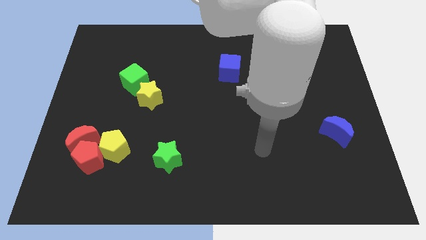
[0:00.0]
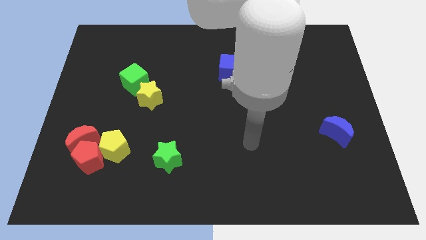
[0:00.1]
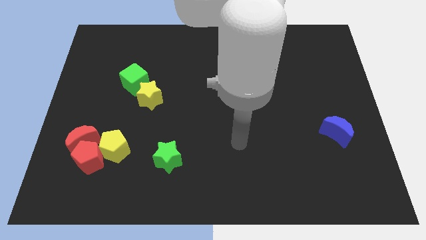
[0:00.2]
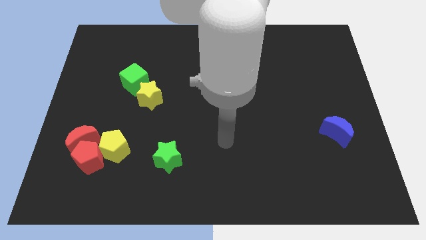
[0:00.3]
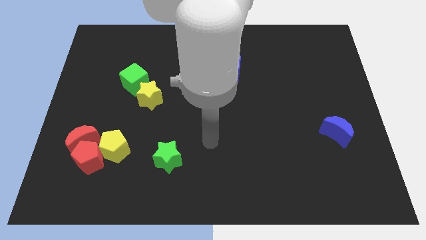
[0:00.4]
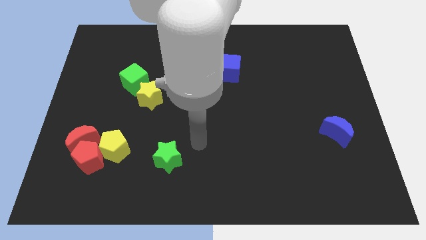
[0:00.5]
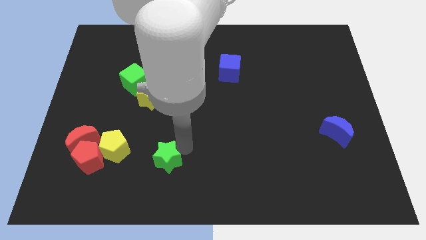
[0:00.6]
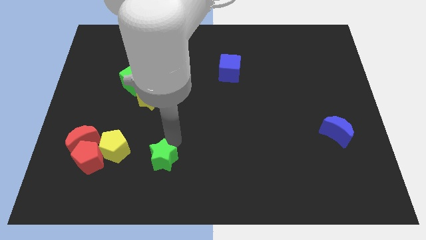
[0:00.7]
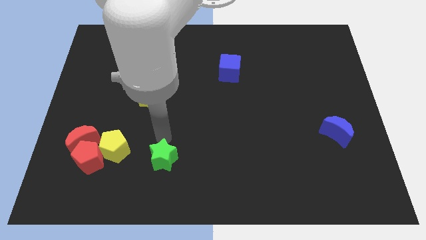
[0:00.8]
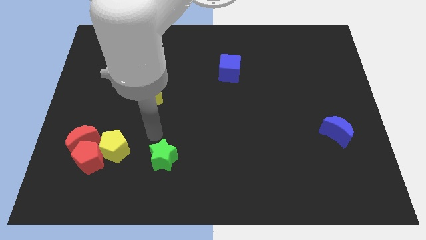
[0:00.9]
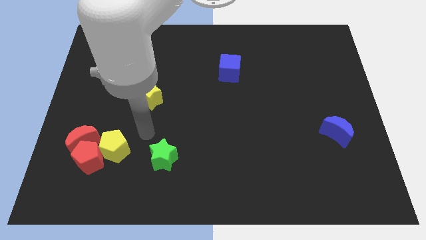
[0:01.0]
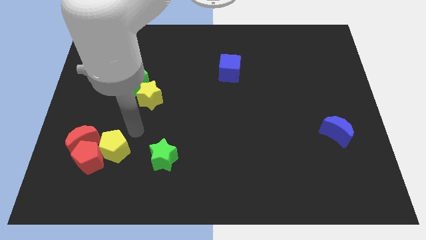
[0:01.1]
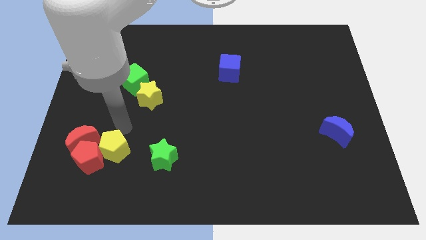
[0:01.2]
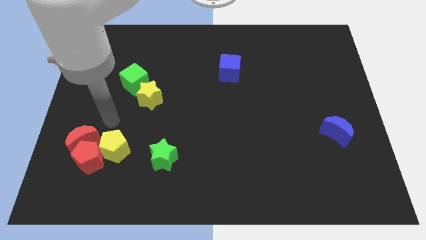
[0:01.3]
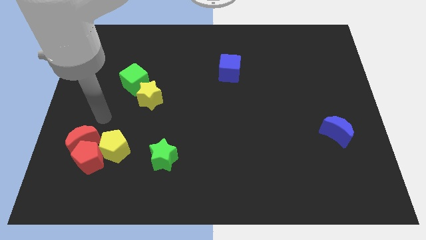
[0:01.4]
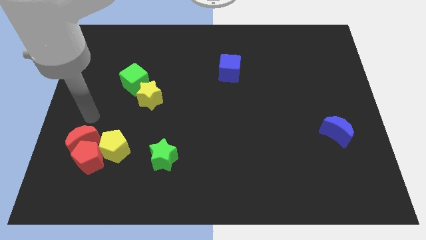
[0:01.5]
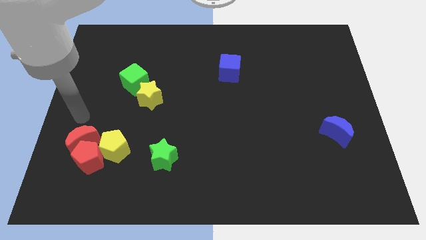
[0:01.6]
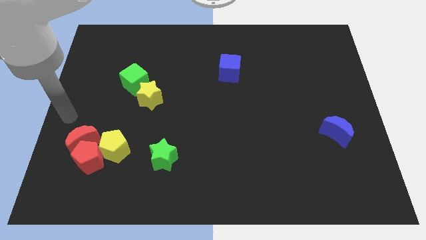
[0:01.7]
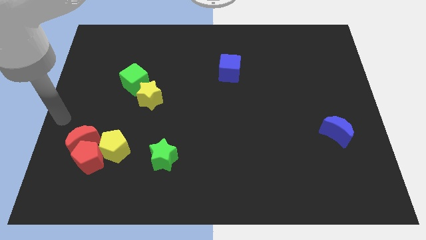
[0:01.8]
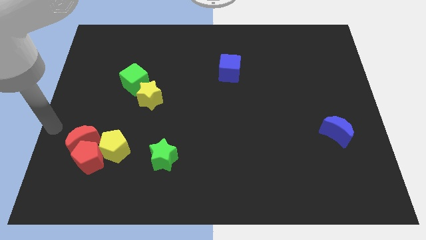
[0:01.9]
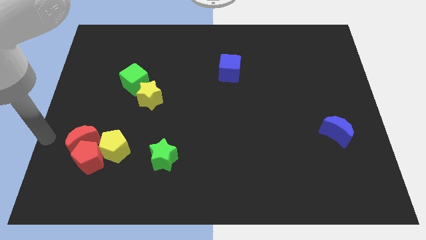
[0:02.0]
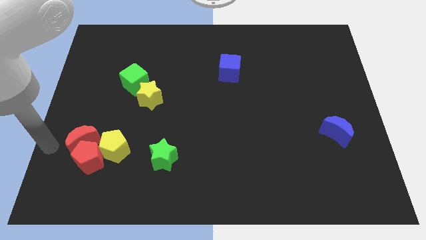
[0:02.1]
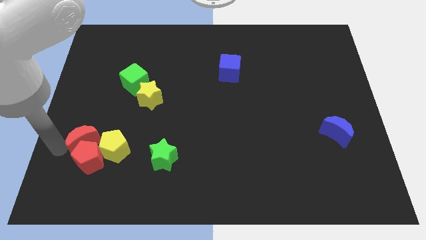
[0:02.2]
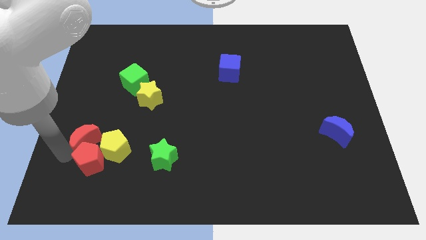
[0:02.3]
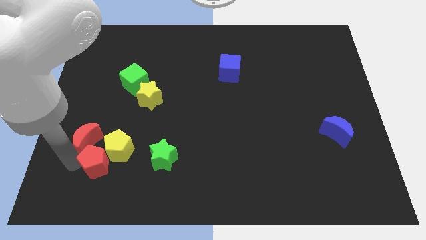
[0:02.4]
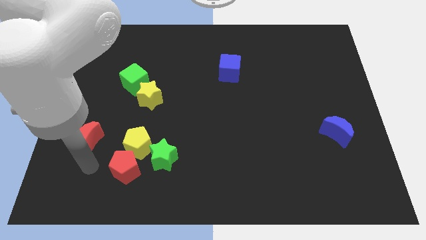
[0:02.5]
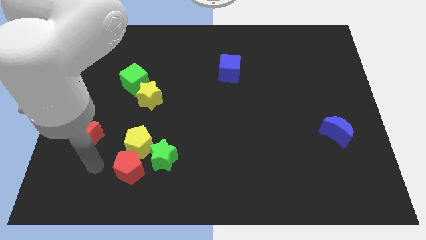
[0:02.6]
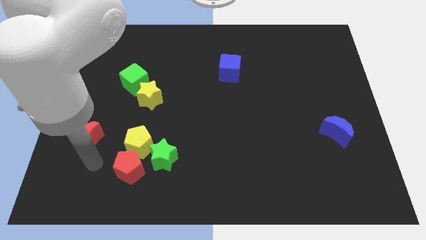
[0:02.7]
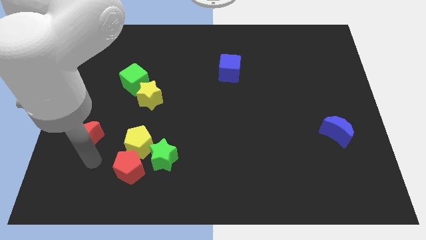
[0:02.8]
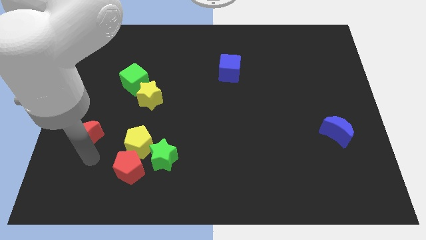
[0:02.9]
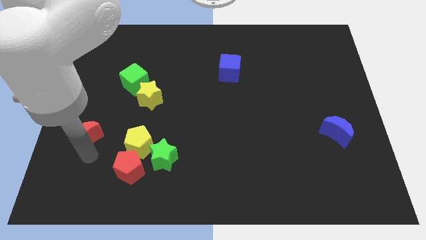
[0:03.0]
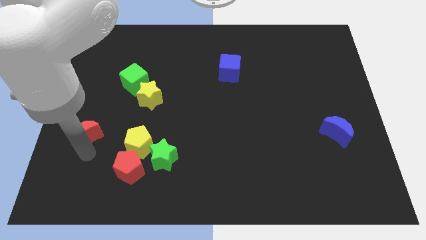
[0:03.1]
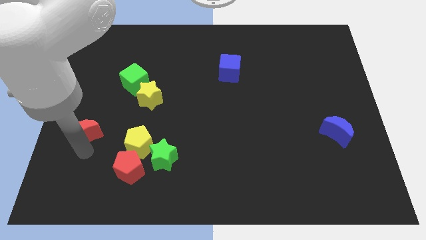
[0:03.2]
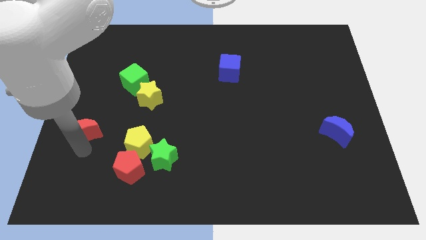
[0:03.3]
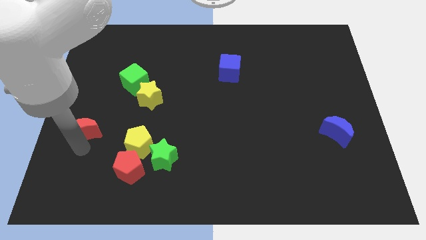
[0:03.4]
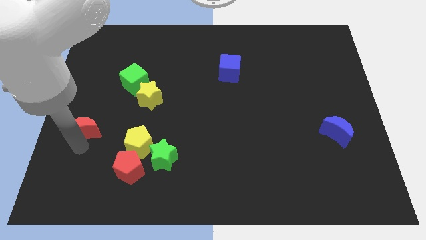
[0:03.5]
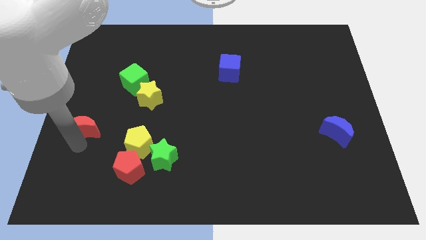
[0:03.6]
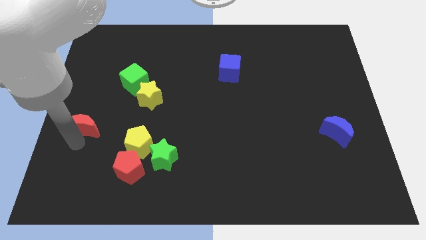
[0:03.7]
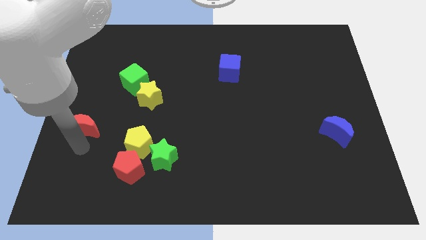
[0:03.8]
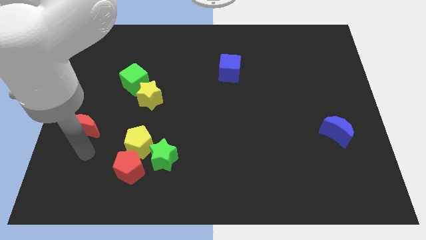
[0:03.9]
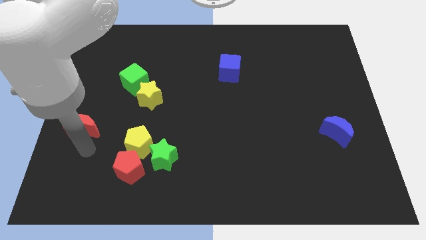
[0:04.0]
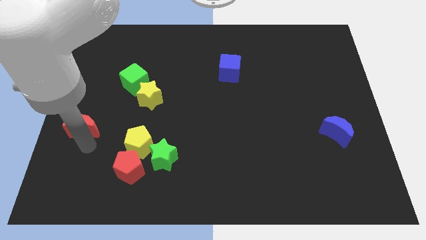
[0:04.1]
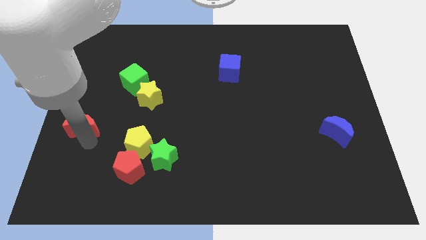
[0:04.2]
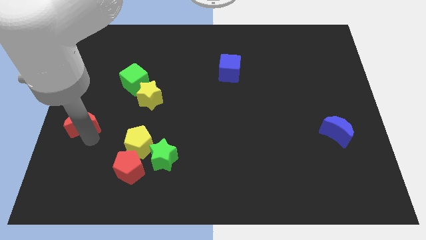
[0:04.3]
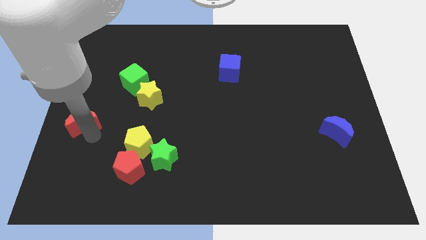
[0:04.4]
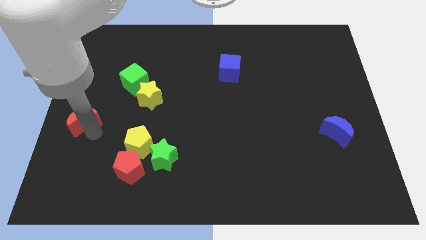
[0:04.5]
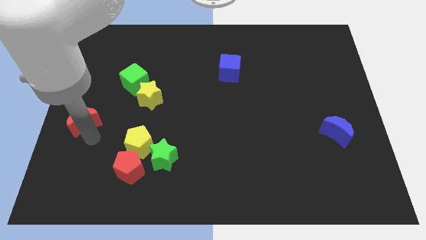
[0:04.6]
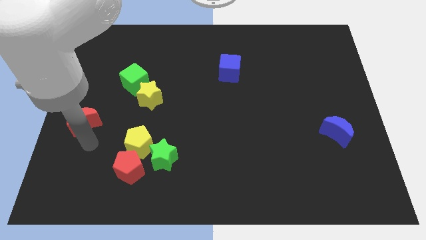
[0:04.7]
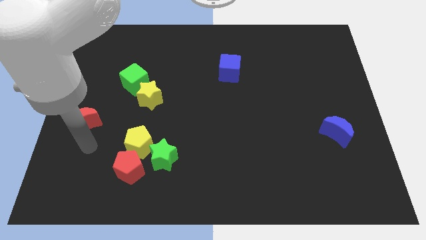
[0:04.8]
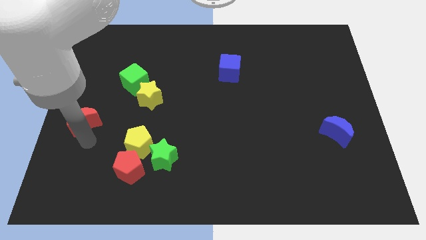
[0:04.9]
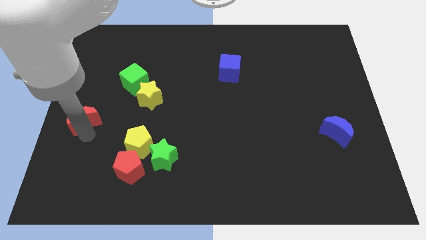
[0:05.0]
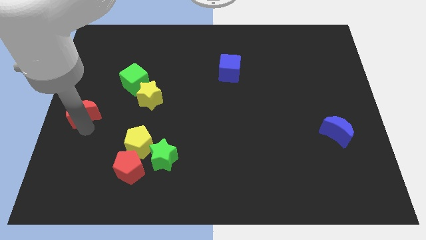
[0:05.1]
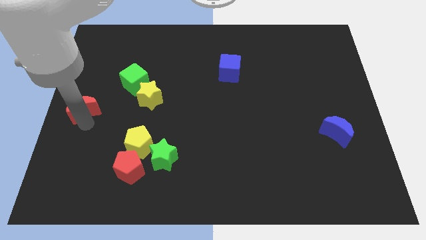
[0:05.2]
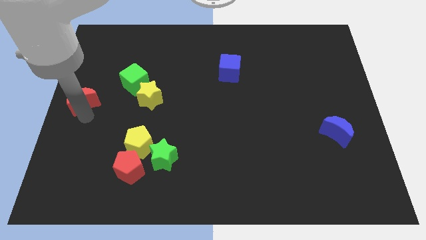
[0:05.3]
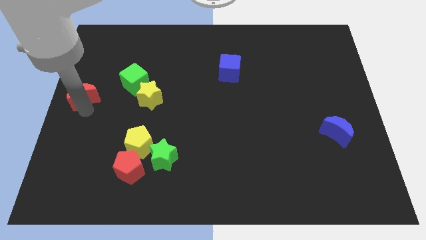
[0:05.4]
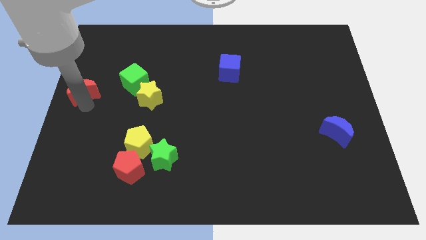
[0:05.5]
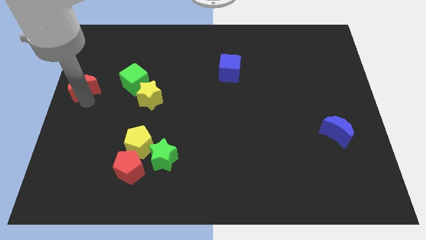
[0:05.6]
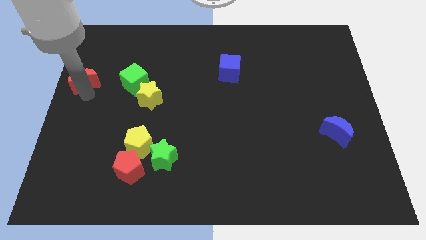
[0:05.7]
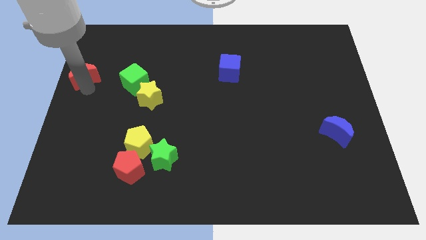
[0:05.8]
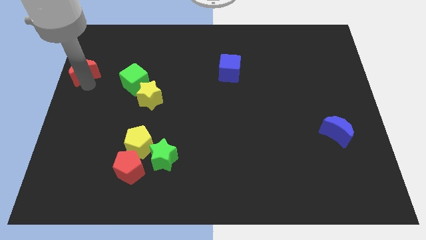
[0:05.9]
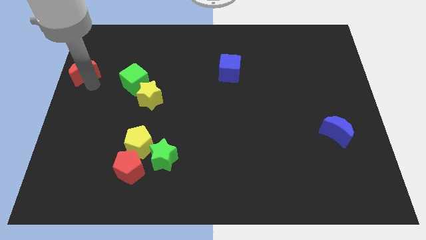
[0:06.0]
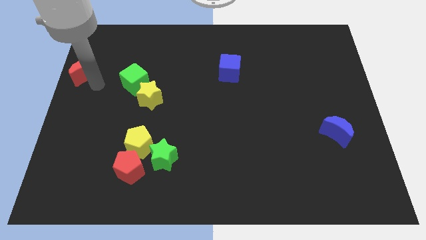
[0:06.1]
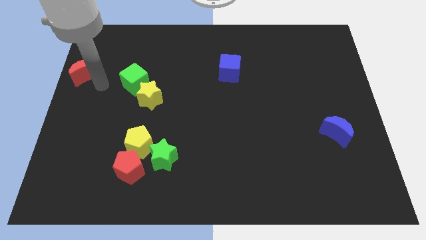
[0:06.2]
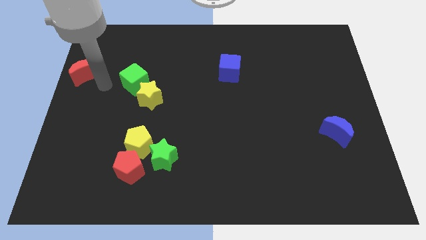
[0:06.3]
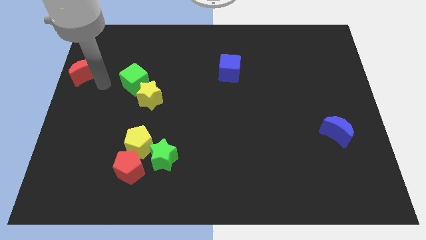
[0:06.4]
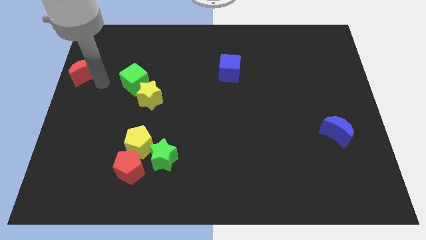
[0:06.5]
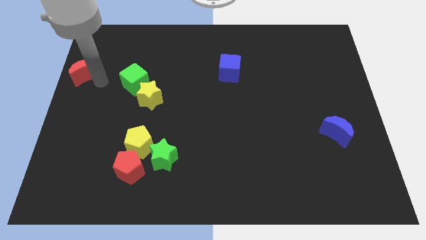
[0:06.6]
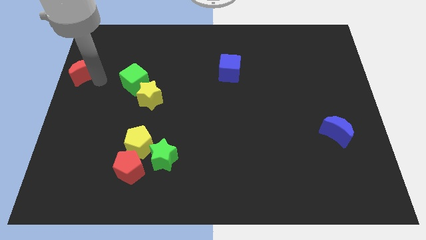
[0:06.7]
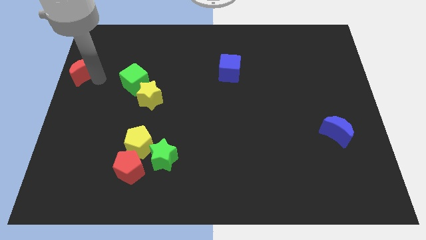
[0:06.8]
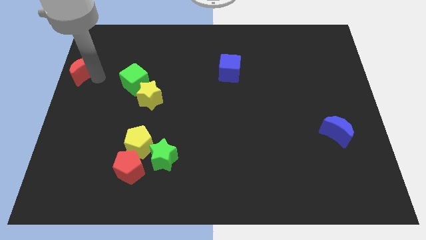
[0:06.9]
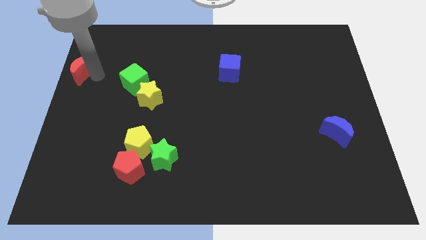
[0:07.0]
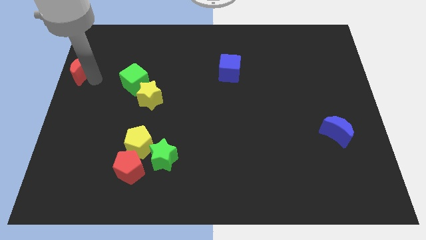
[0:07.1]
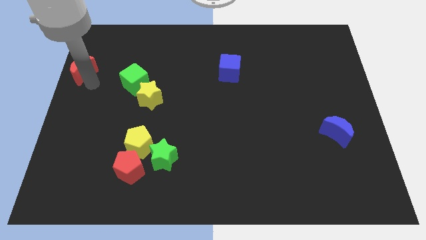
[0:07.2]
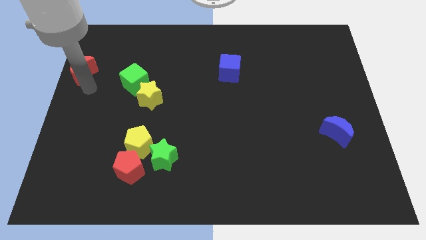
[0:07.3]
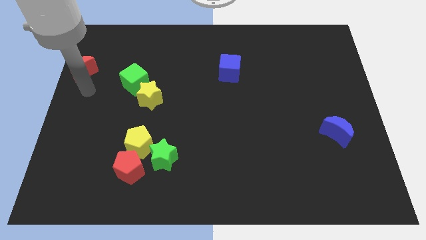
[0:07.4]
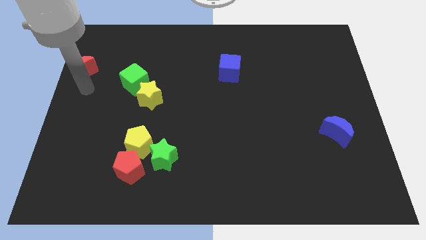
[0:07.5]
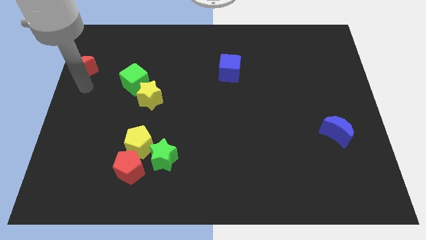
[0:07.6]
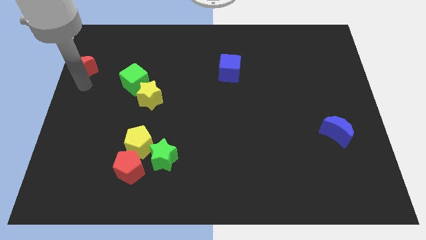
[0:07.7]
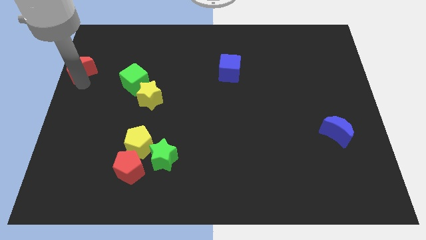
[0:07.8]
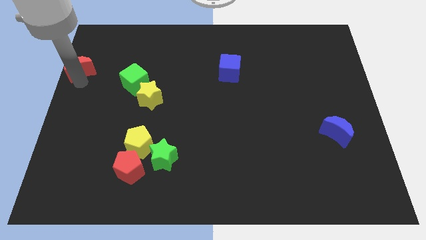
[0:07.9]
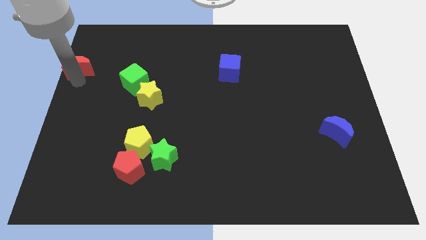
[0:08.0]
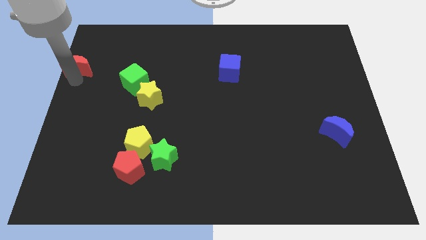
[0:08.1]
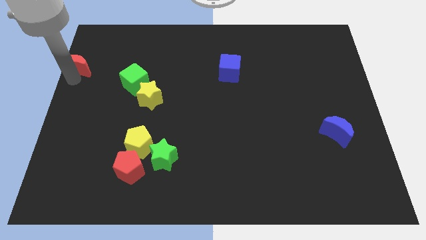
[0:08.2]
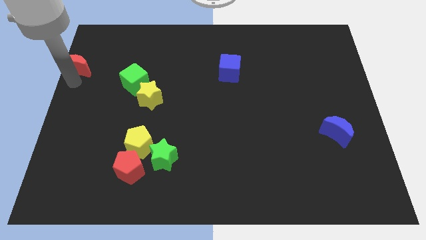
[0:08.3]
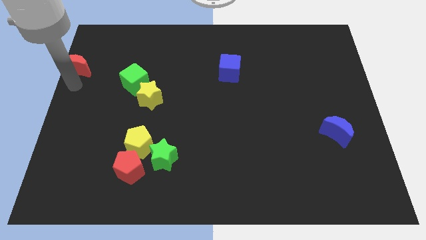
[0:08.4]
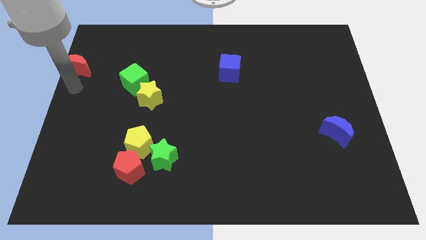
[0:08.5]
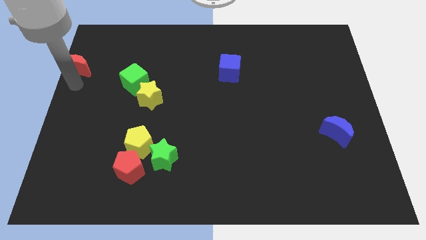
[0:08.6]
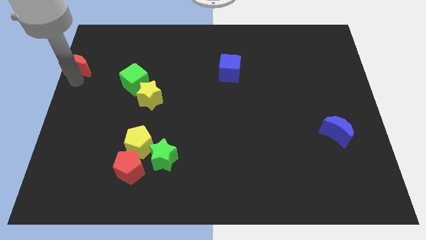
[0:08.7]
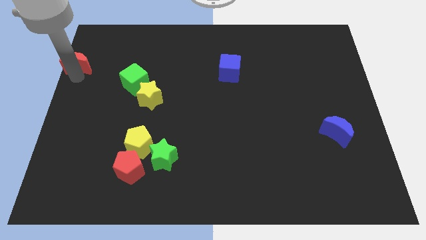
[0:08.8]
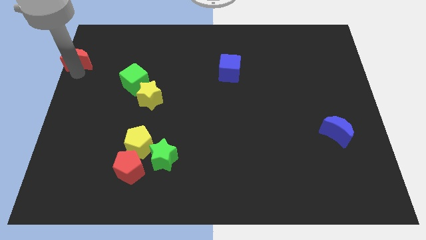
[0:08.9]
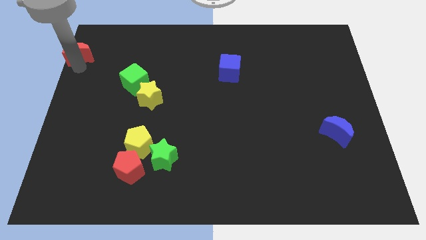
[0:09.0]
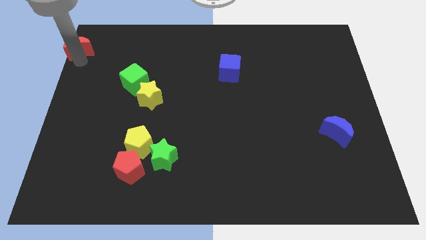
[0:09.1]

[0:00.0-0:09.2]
push the red moon to the top left
